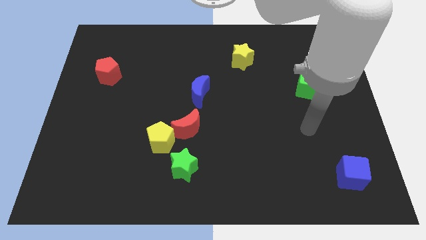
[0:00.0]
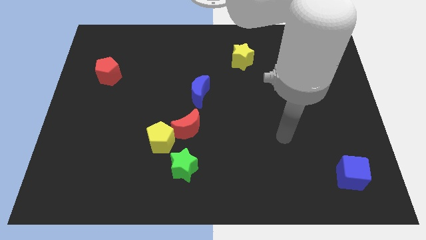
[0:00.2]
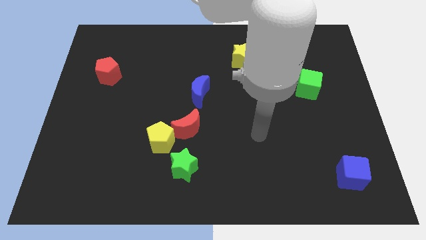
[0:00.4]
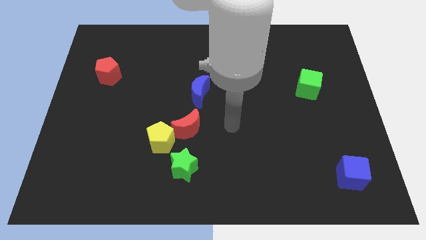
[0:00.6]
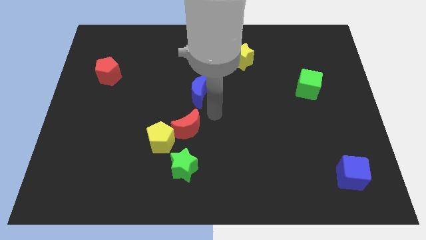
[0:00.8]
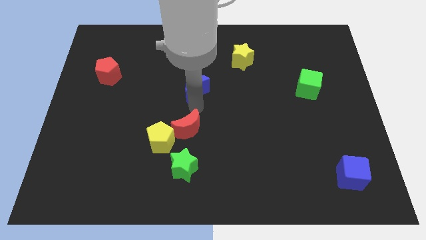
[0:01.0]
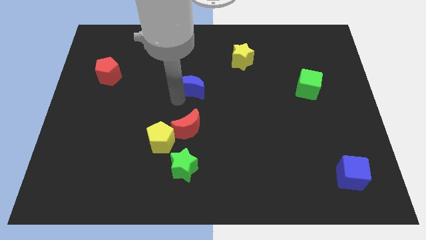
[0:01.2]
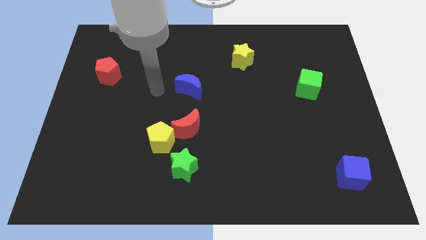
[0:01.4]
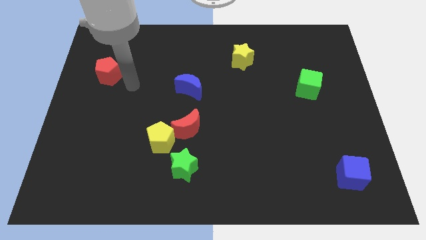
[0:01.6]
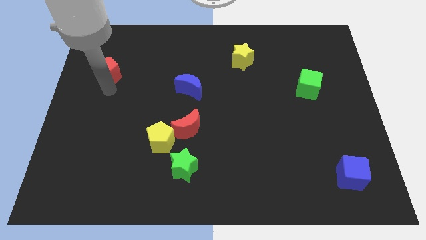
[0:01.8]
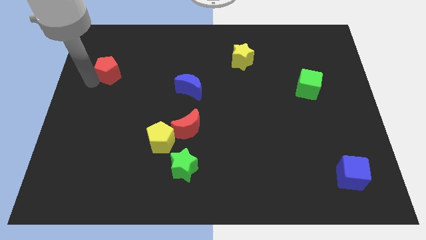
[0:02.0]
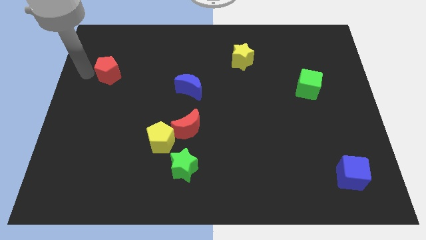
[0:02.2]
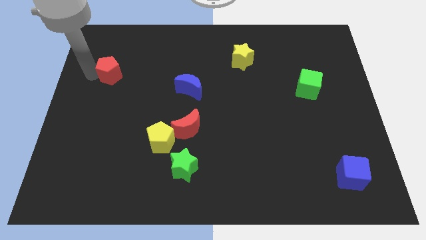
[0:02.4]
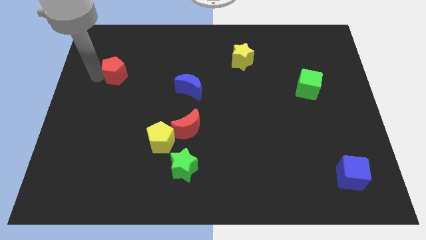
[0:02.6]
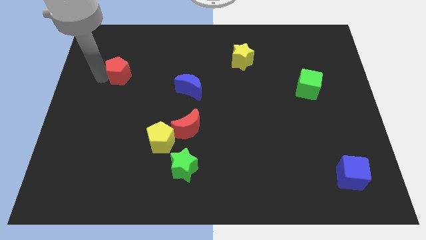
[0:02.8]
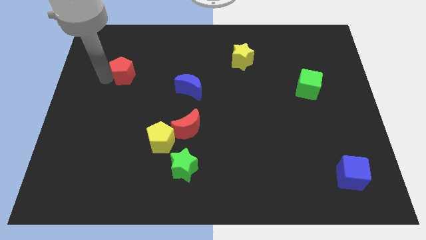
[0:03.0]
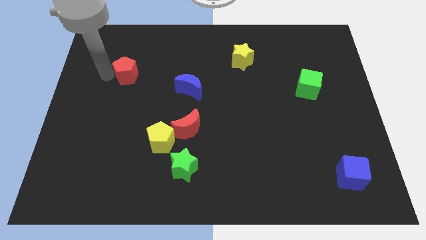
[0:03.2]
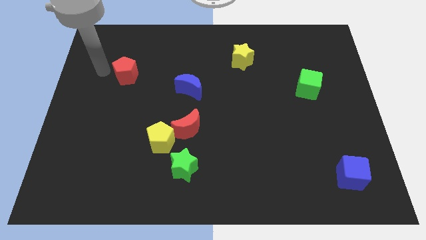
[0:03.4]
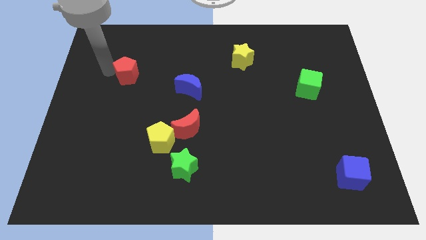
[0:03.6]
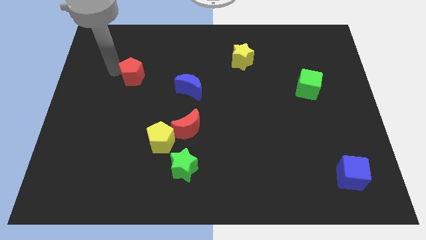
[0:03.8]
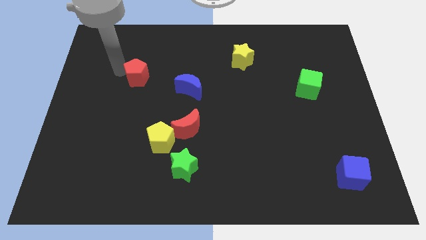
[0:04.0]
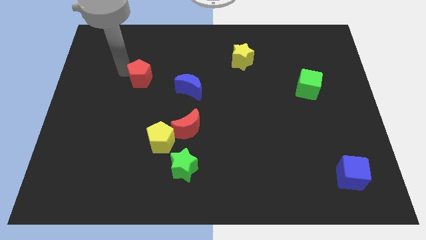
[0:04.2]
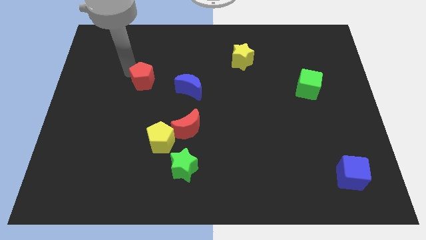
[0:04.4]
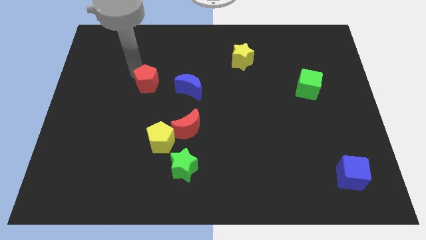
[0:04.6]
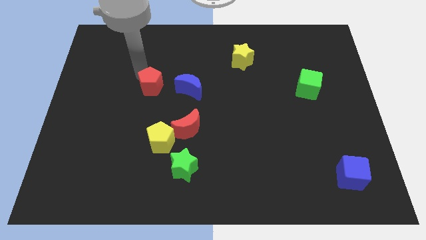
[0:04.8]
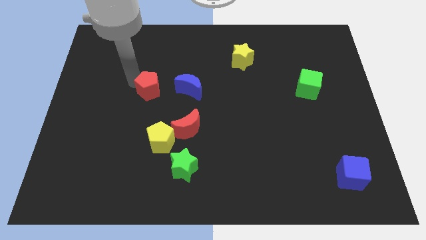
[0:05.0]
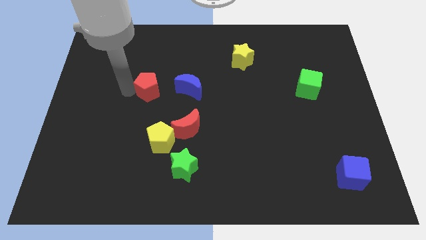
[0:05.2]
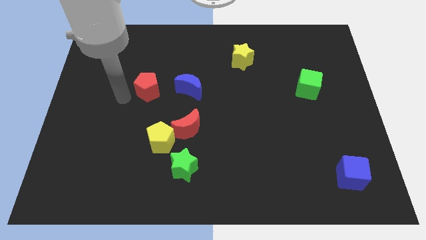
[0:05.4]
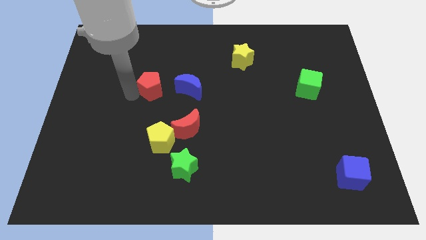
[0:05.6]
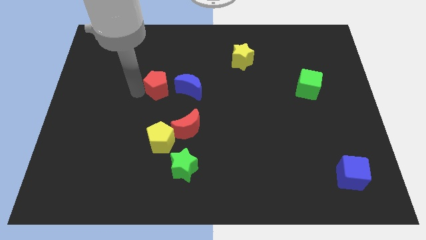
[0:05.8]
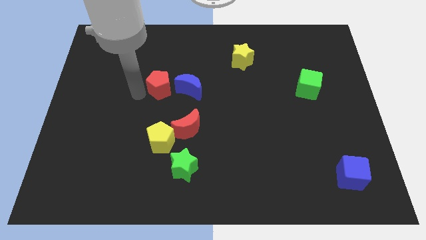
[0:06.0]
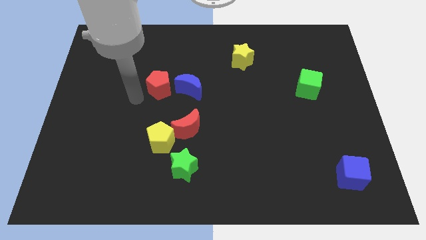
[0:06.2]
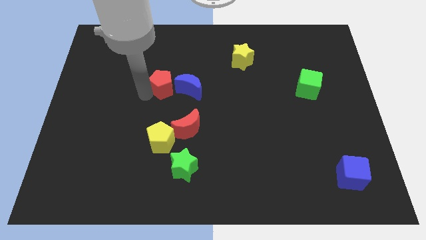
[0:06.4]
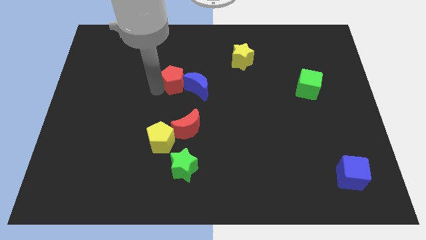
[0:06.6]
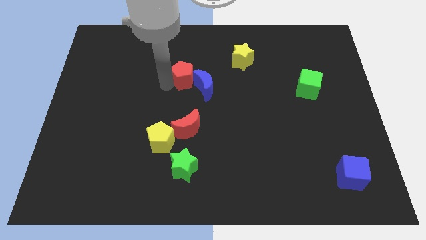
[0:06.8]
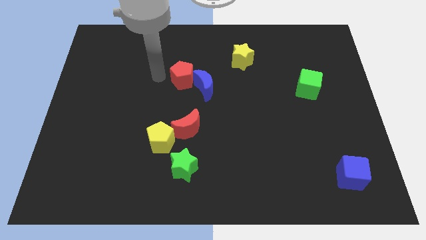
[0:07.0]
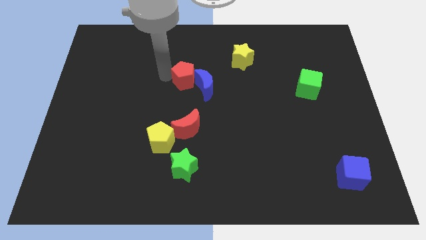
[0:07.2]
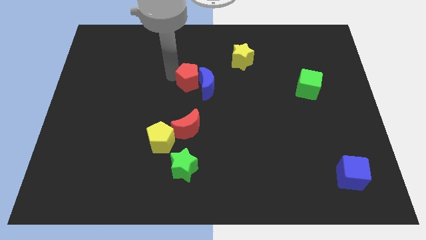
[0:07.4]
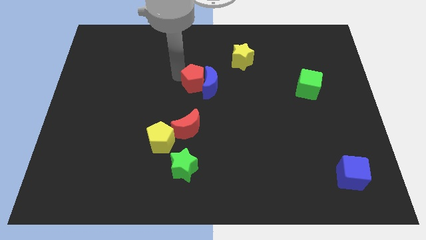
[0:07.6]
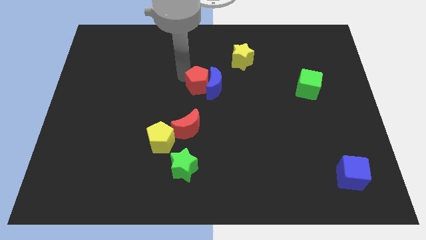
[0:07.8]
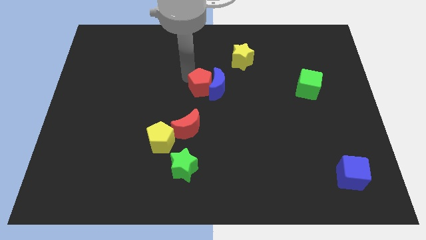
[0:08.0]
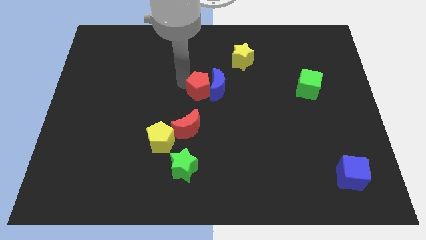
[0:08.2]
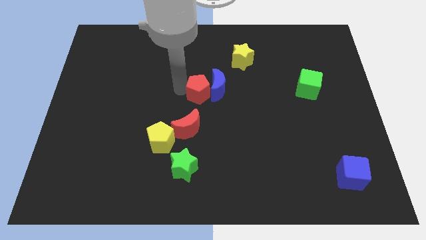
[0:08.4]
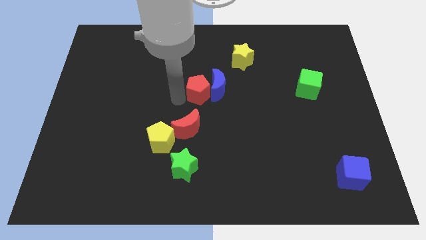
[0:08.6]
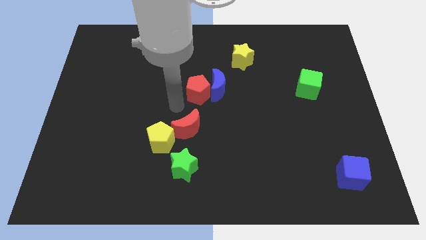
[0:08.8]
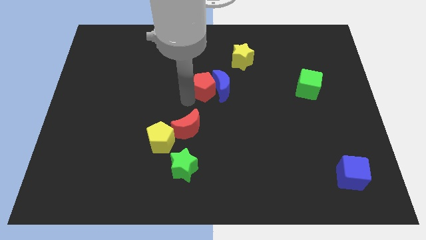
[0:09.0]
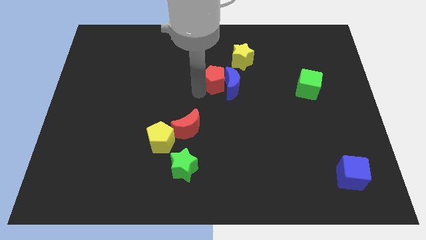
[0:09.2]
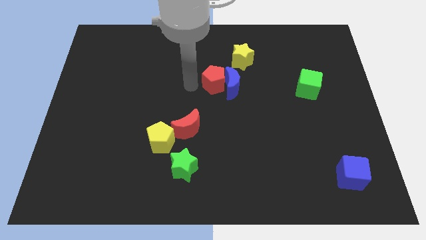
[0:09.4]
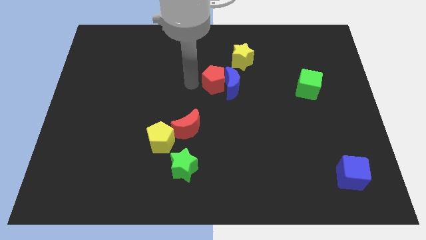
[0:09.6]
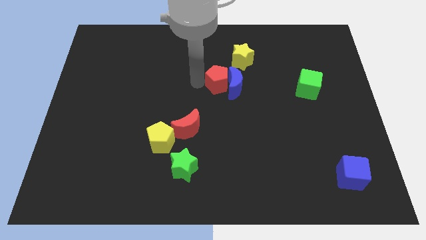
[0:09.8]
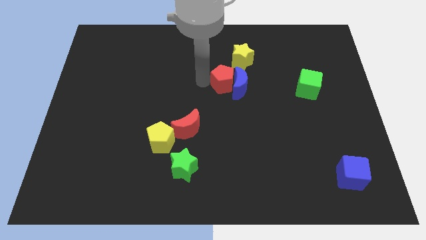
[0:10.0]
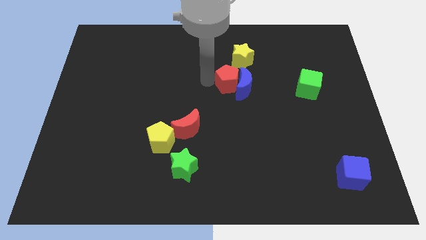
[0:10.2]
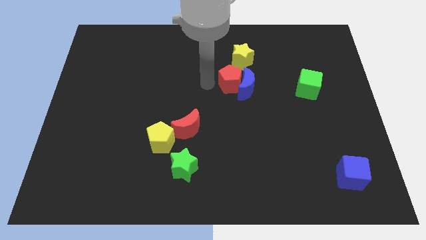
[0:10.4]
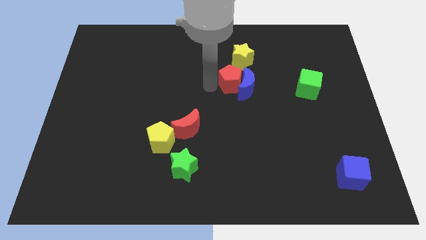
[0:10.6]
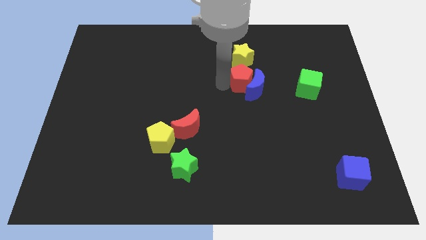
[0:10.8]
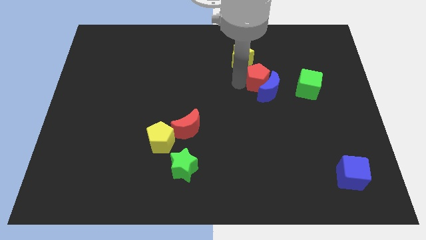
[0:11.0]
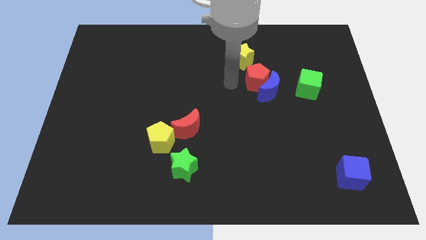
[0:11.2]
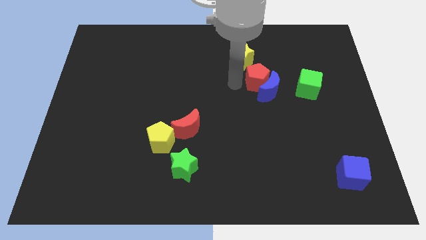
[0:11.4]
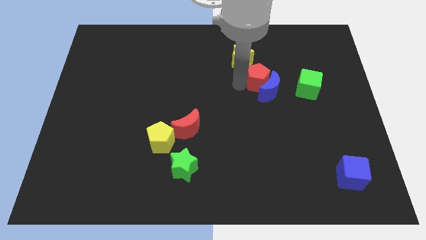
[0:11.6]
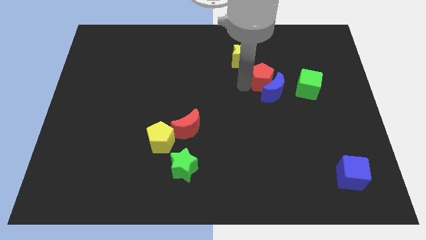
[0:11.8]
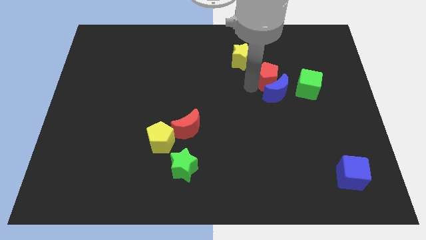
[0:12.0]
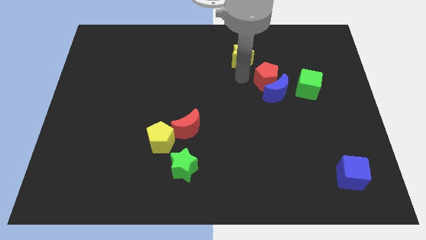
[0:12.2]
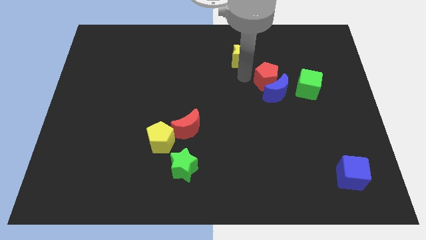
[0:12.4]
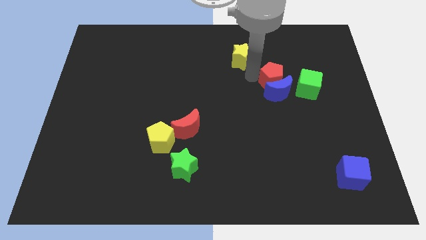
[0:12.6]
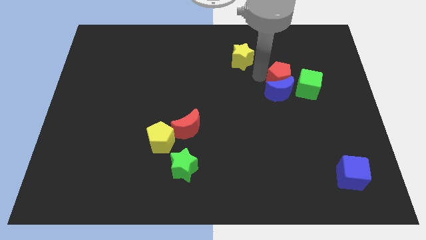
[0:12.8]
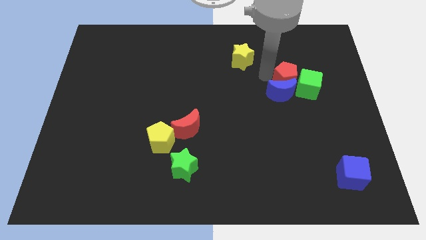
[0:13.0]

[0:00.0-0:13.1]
put the red pentagon close to the green cube
